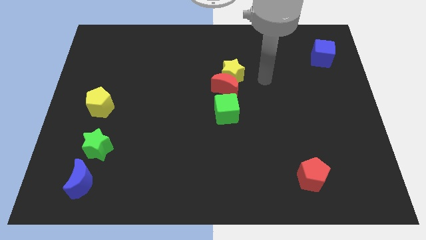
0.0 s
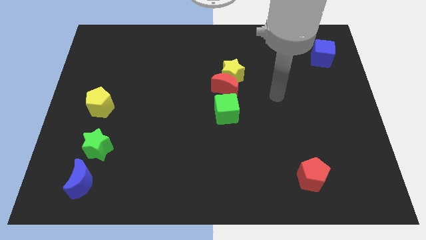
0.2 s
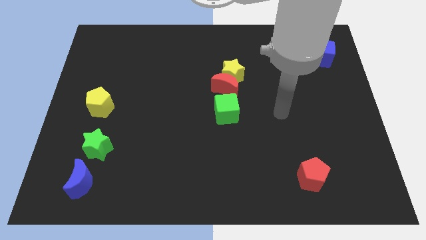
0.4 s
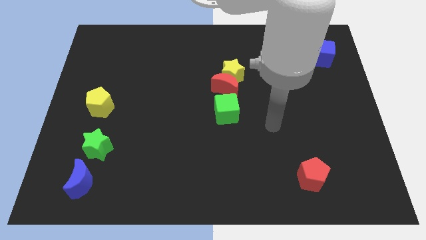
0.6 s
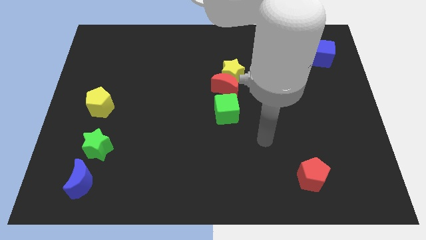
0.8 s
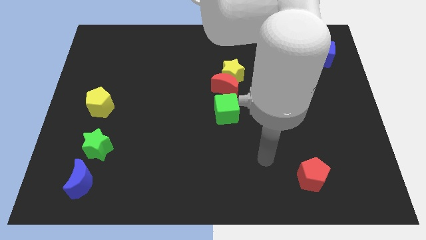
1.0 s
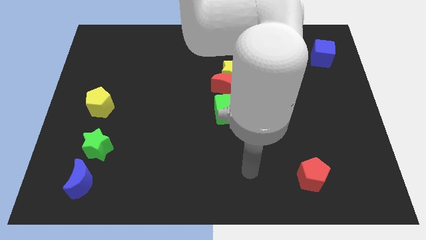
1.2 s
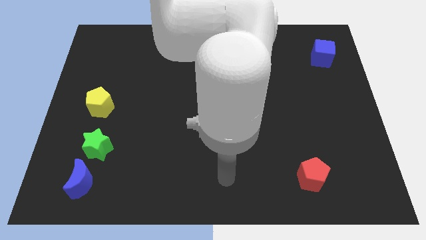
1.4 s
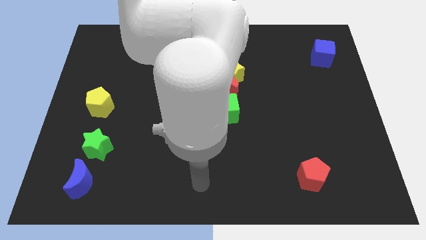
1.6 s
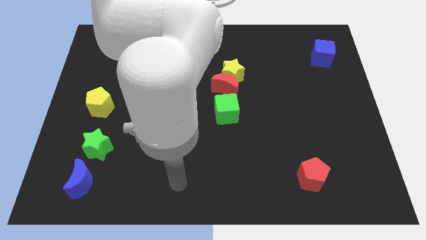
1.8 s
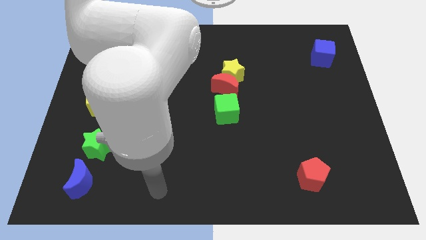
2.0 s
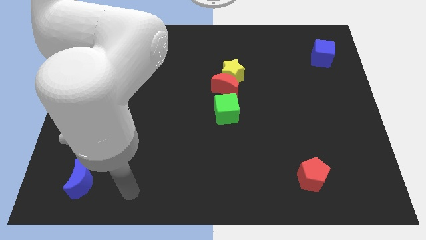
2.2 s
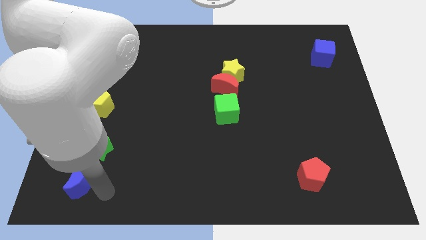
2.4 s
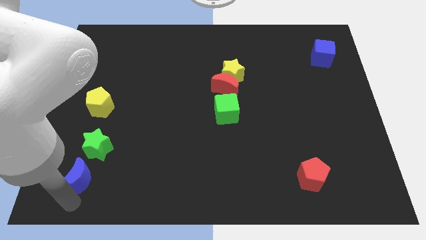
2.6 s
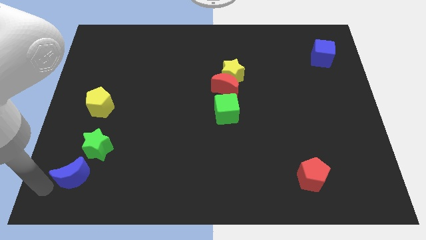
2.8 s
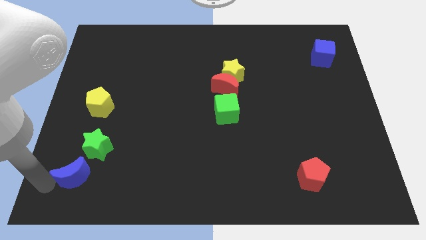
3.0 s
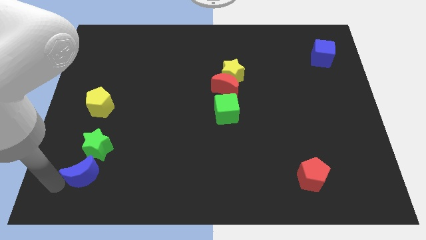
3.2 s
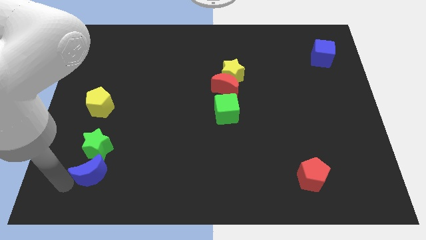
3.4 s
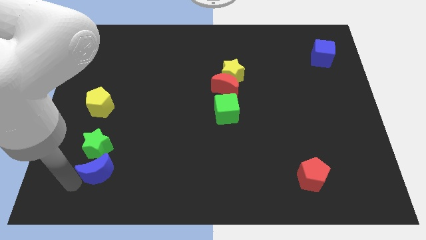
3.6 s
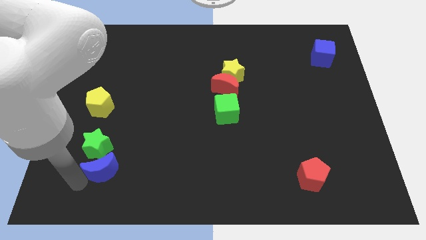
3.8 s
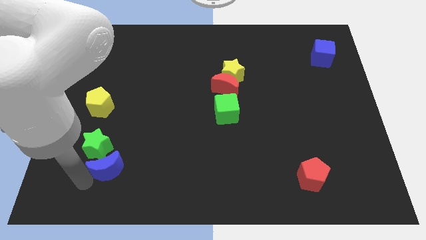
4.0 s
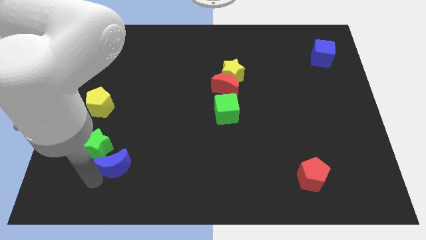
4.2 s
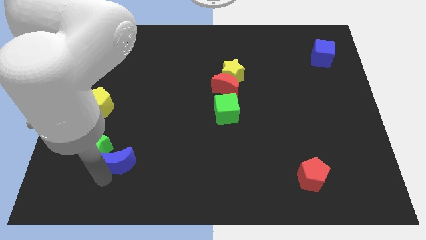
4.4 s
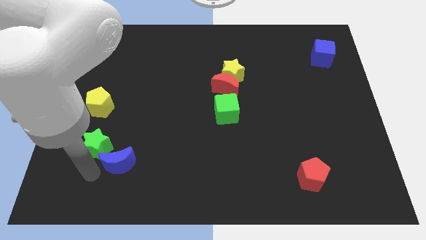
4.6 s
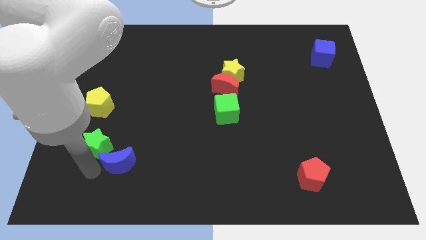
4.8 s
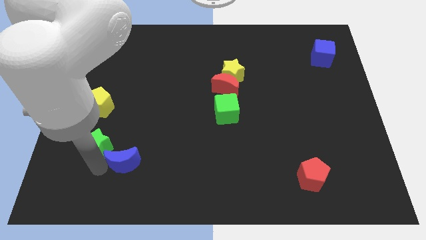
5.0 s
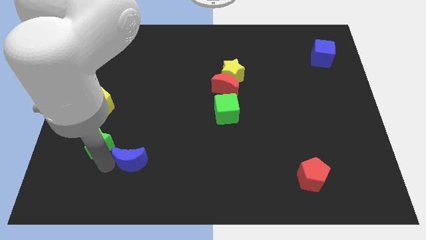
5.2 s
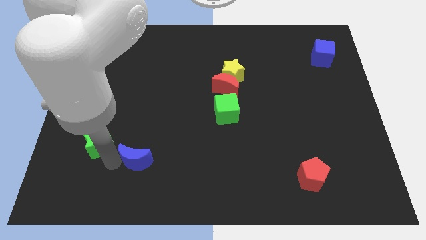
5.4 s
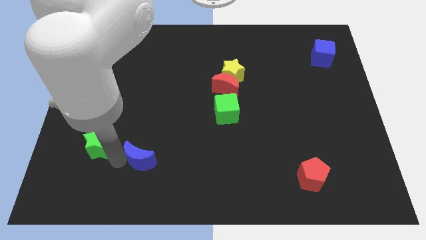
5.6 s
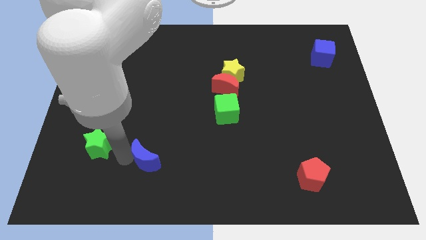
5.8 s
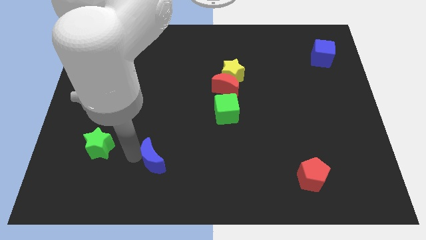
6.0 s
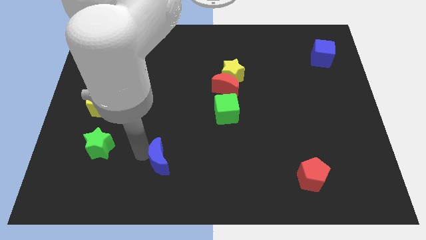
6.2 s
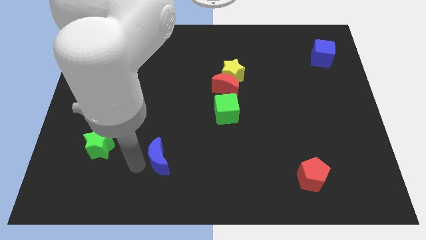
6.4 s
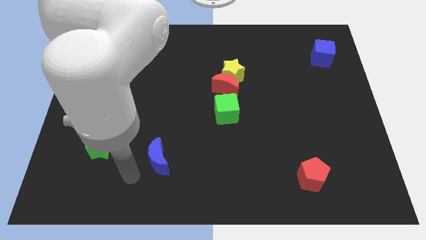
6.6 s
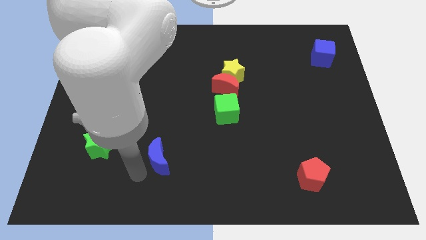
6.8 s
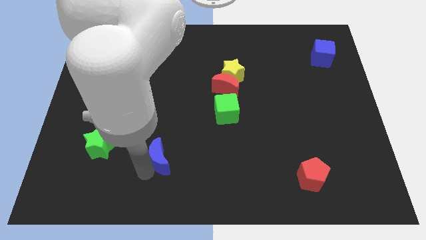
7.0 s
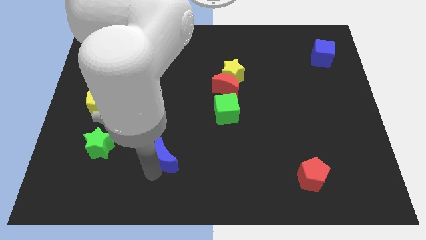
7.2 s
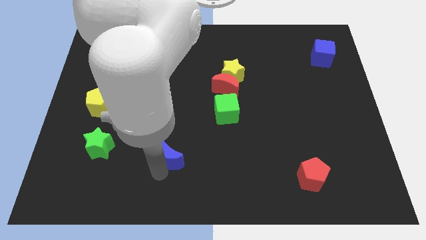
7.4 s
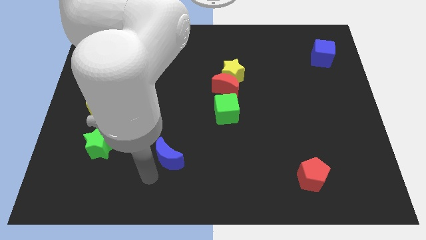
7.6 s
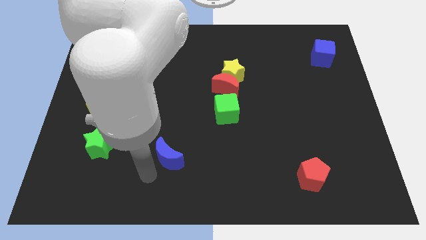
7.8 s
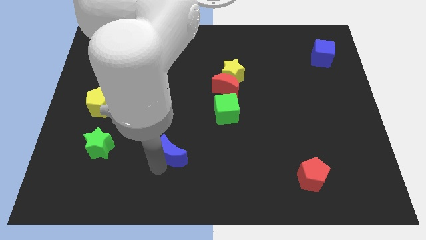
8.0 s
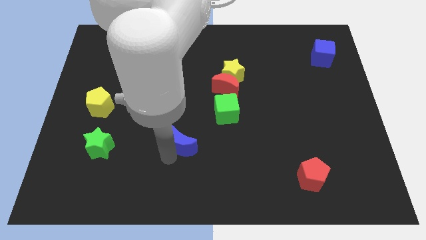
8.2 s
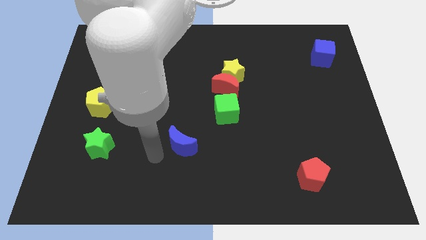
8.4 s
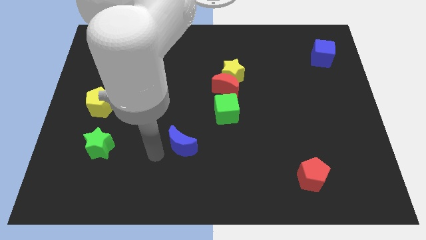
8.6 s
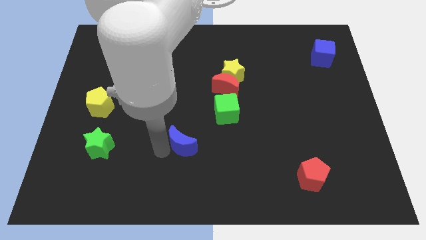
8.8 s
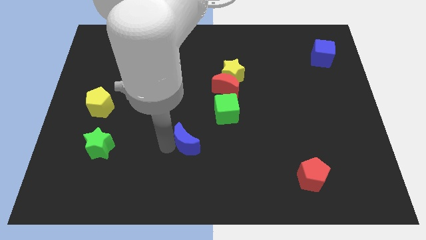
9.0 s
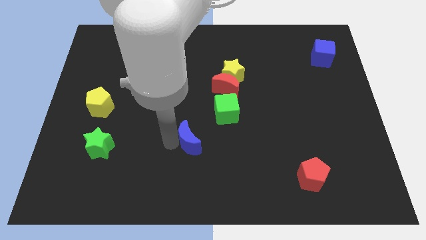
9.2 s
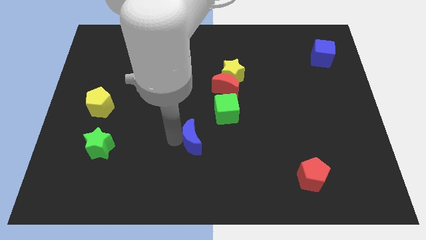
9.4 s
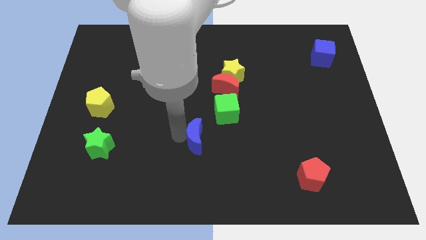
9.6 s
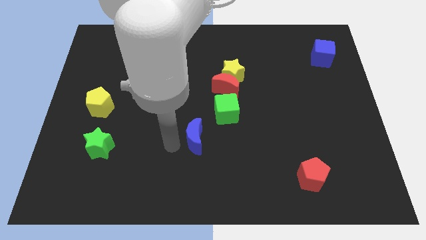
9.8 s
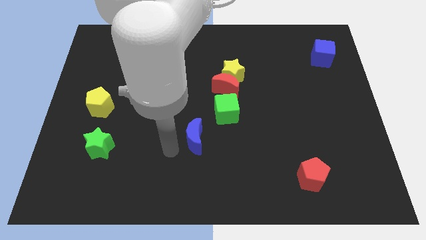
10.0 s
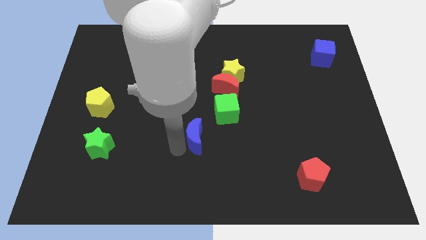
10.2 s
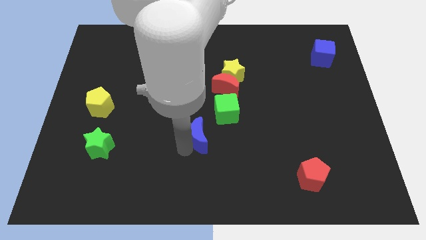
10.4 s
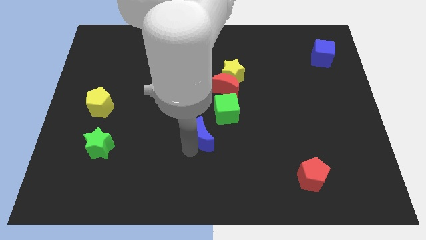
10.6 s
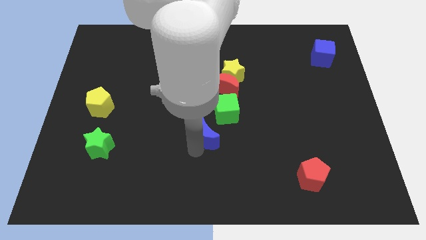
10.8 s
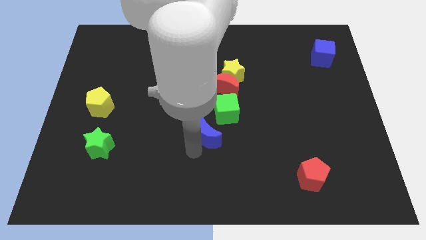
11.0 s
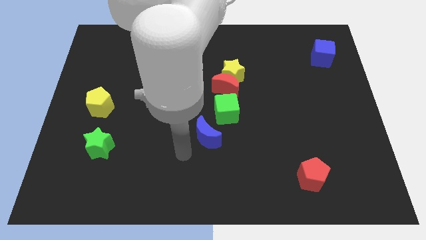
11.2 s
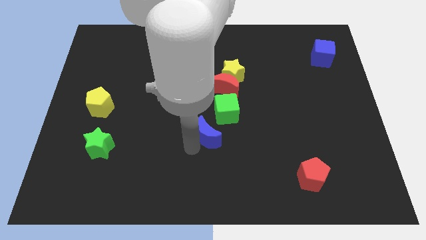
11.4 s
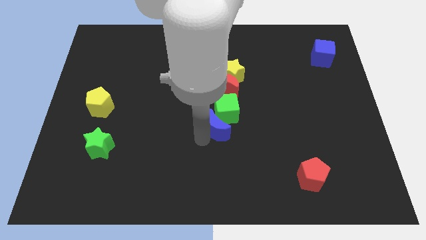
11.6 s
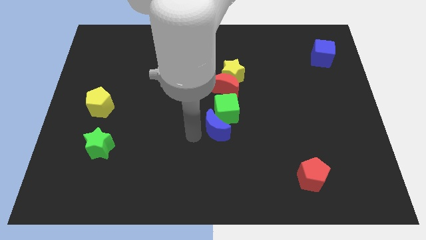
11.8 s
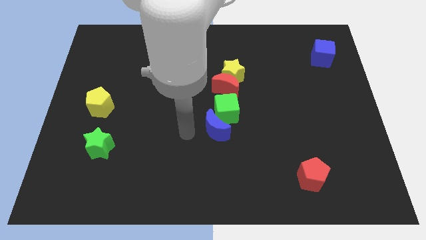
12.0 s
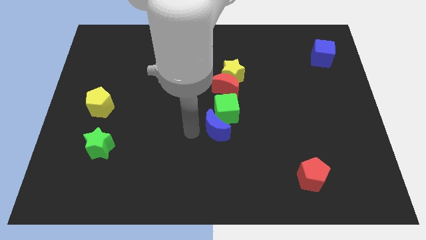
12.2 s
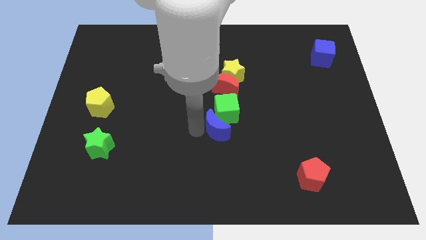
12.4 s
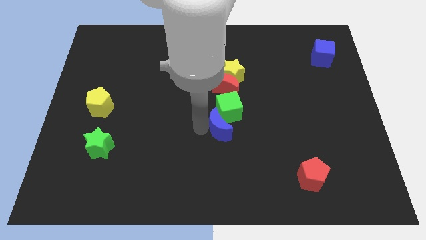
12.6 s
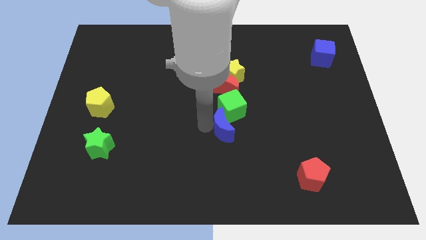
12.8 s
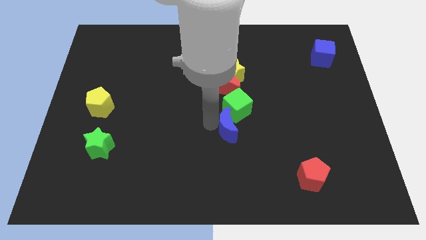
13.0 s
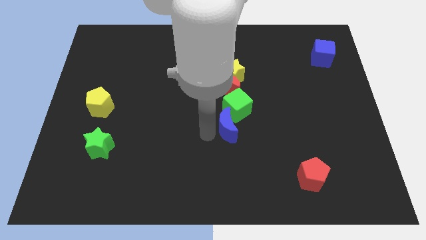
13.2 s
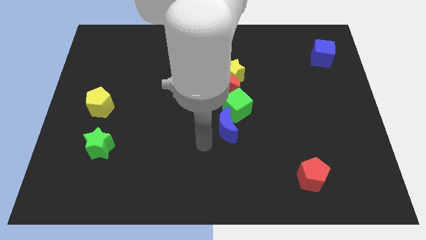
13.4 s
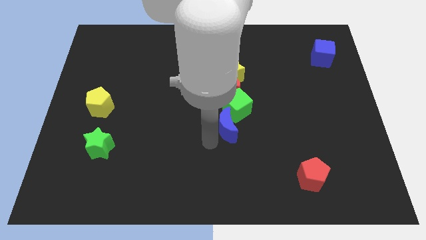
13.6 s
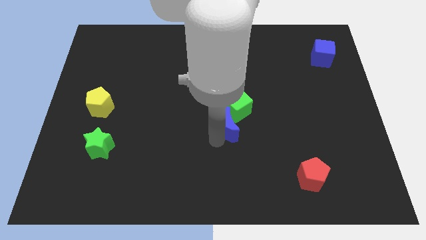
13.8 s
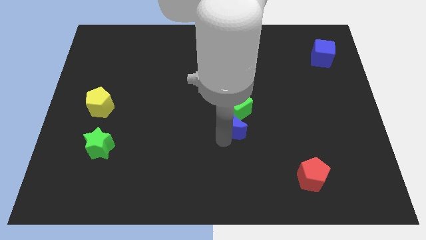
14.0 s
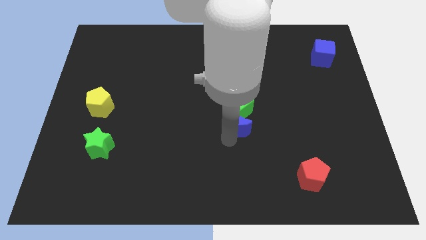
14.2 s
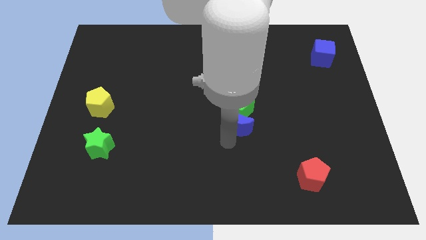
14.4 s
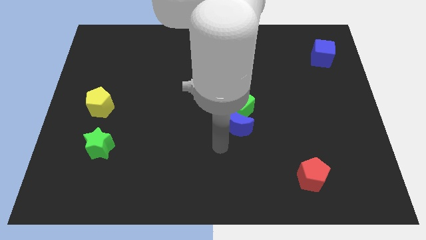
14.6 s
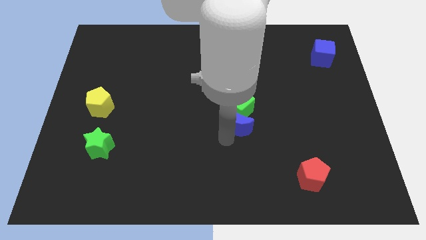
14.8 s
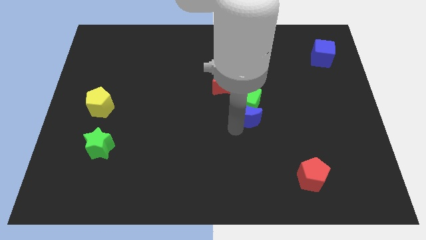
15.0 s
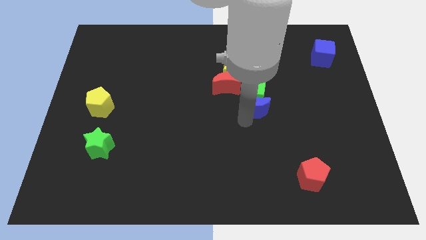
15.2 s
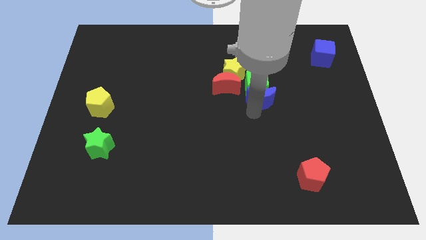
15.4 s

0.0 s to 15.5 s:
push the blue moon to the right of the red moon
